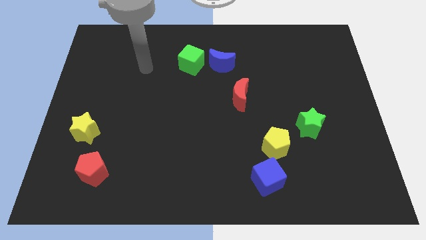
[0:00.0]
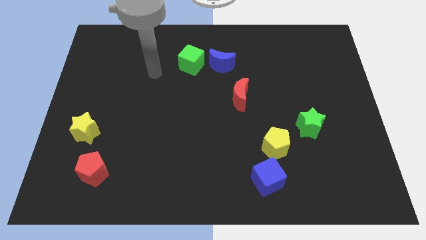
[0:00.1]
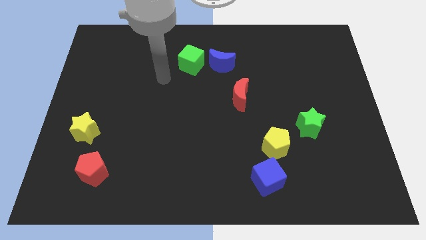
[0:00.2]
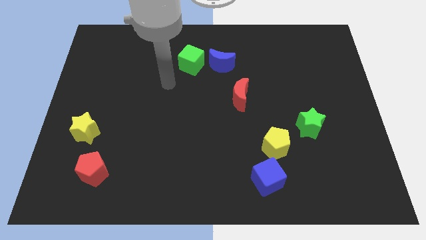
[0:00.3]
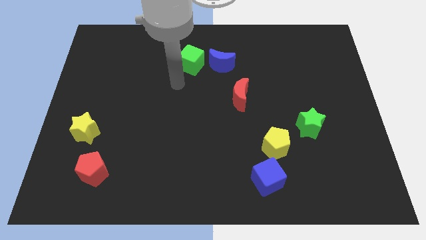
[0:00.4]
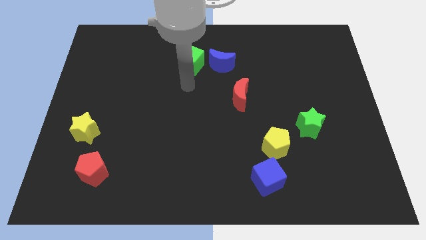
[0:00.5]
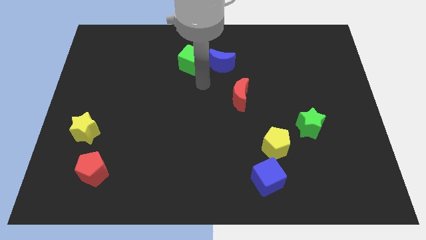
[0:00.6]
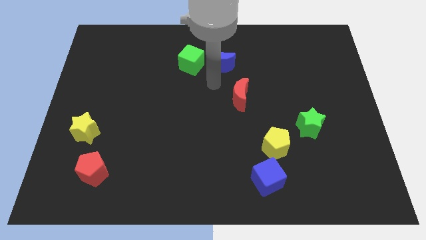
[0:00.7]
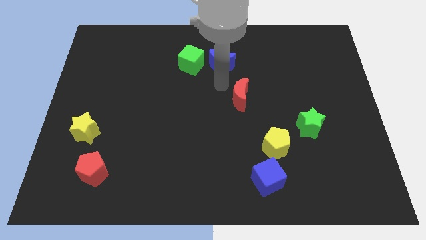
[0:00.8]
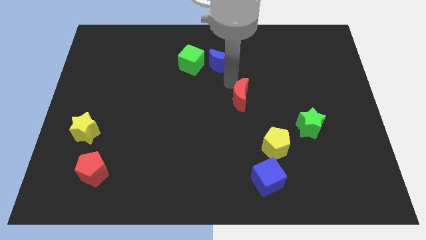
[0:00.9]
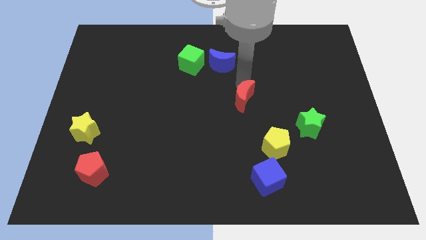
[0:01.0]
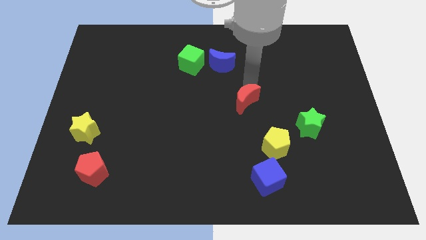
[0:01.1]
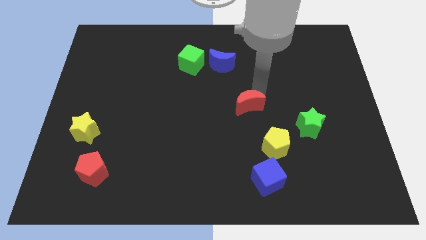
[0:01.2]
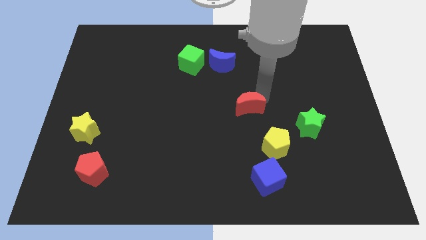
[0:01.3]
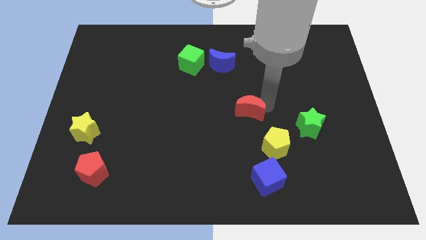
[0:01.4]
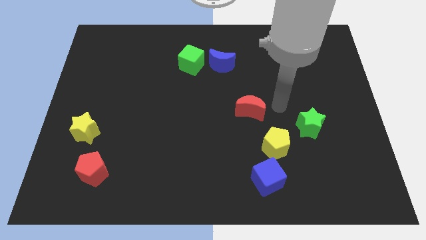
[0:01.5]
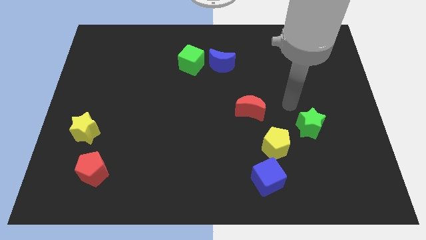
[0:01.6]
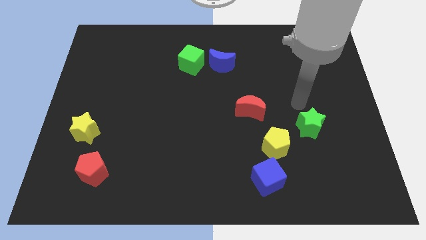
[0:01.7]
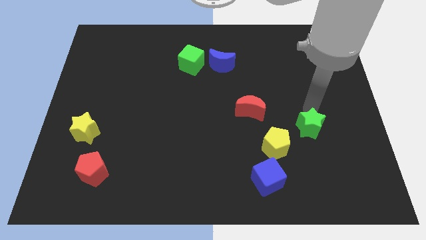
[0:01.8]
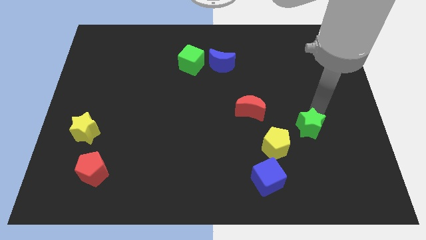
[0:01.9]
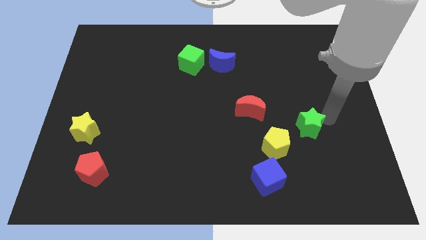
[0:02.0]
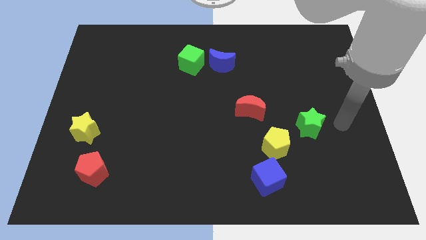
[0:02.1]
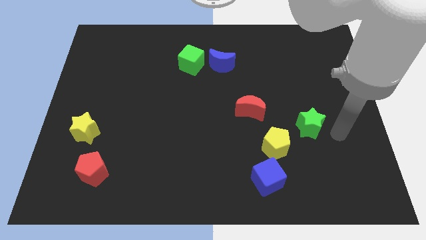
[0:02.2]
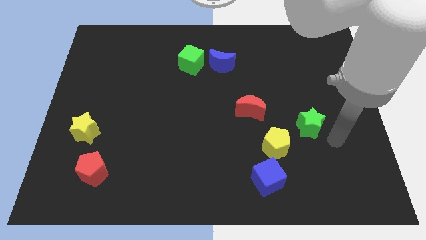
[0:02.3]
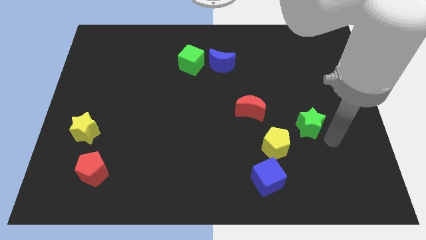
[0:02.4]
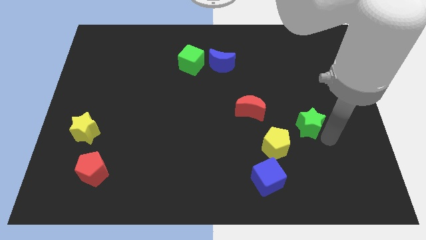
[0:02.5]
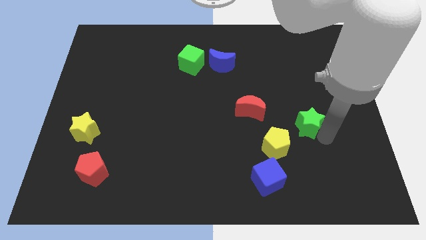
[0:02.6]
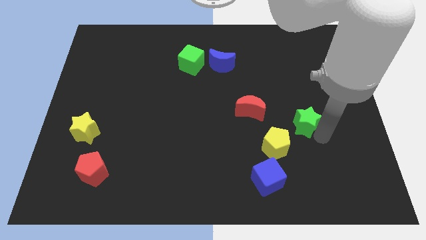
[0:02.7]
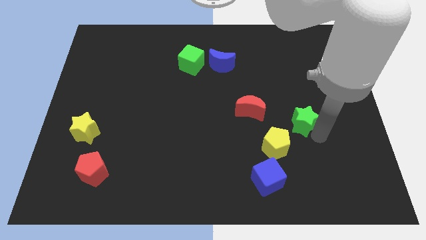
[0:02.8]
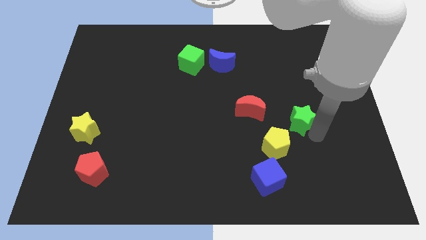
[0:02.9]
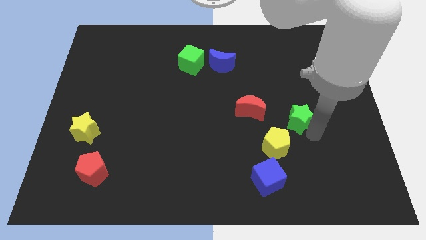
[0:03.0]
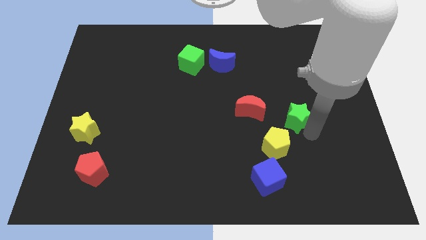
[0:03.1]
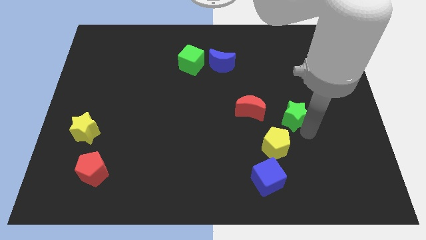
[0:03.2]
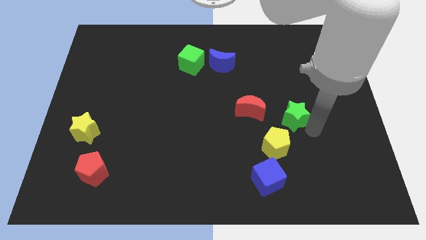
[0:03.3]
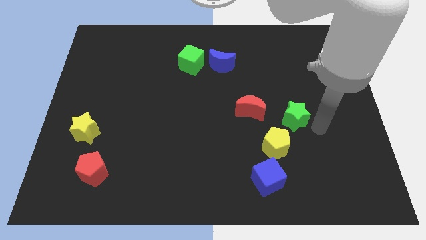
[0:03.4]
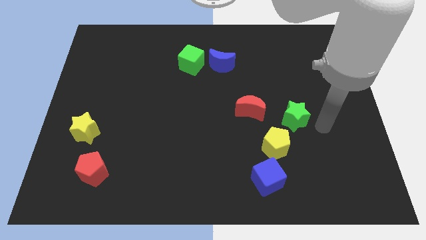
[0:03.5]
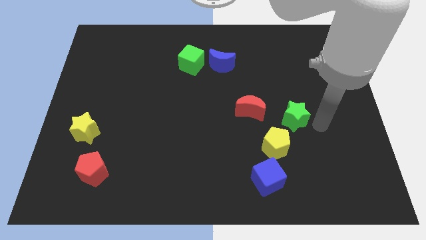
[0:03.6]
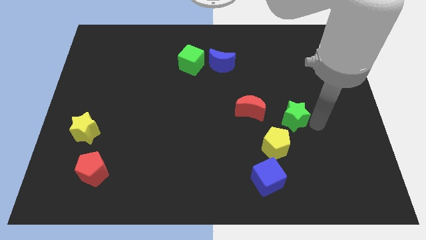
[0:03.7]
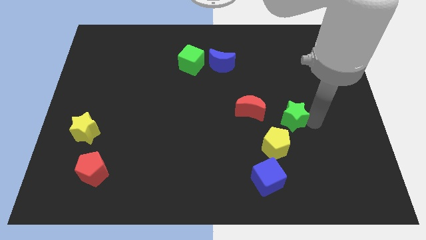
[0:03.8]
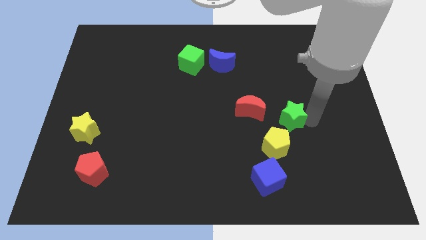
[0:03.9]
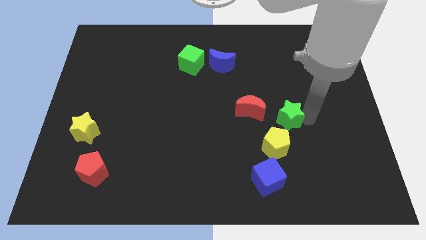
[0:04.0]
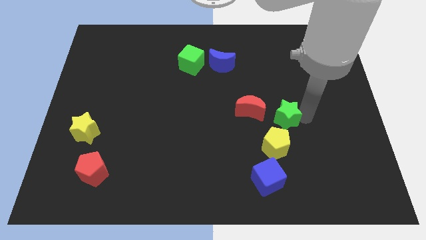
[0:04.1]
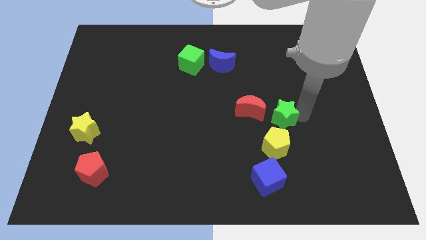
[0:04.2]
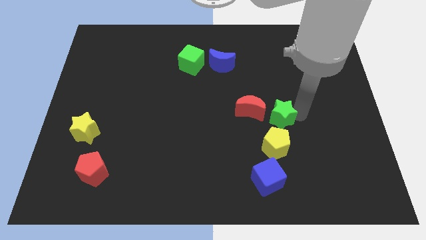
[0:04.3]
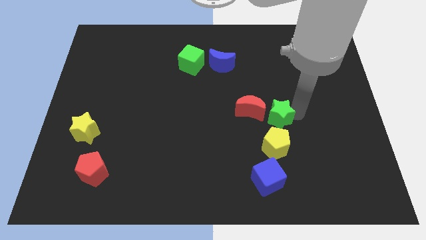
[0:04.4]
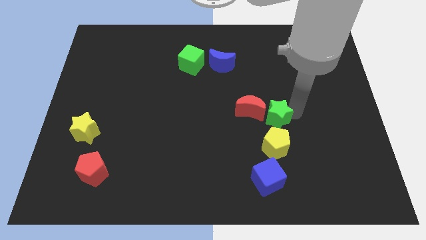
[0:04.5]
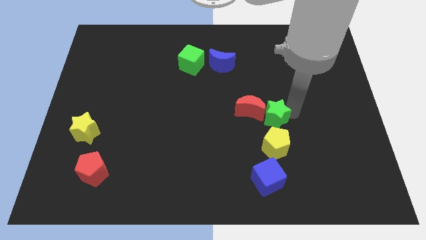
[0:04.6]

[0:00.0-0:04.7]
put the green star to the red moon

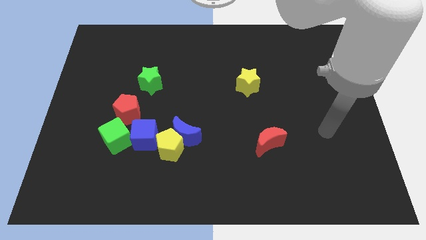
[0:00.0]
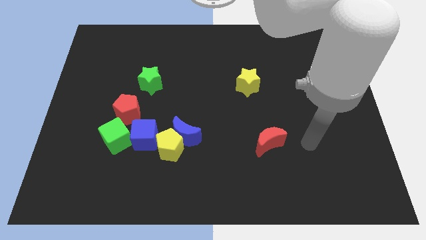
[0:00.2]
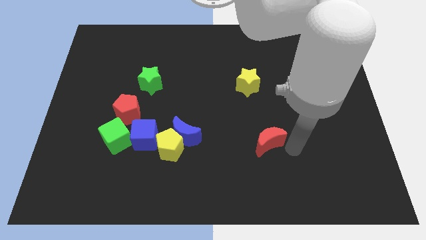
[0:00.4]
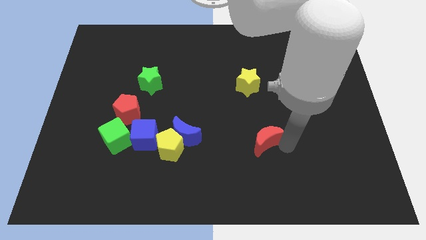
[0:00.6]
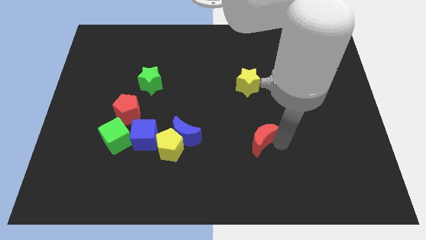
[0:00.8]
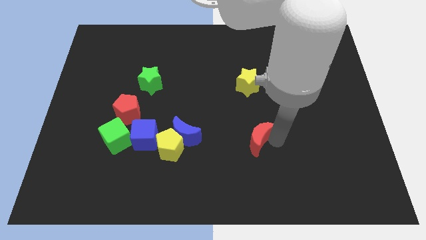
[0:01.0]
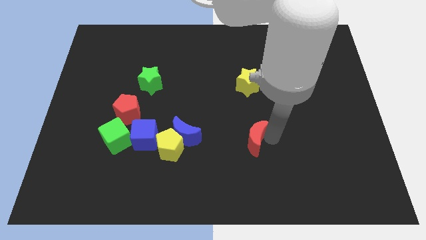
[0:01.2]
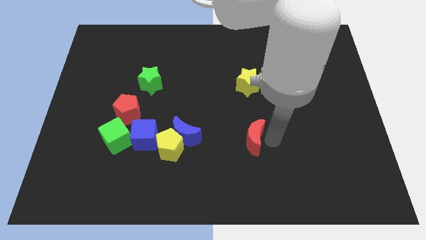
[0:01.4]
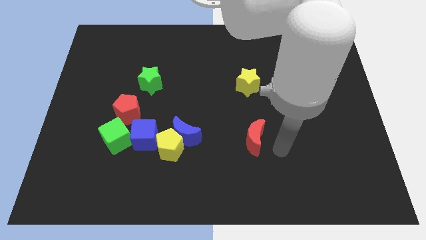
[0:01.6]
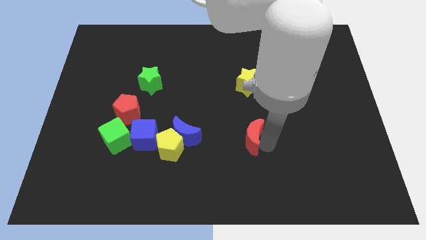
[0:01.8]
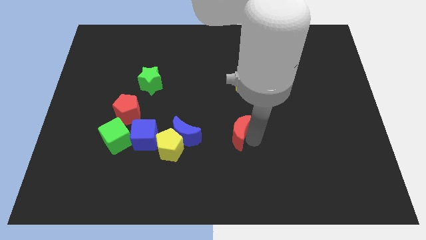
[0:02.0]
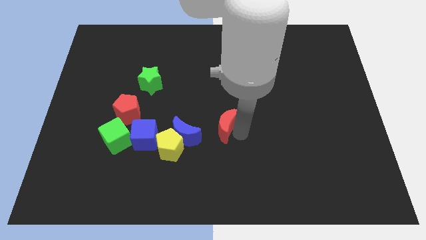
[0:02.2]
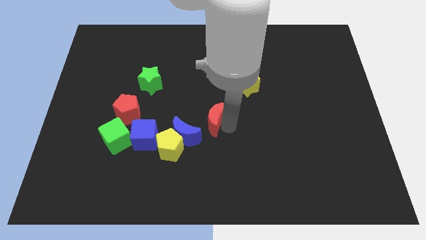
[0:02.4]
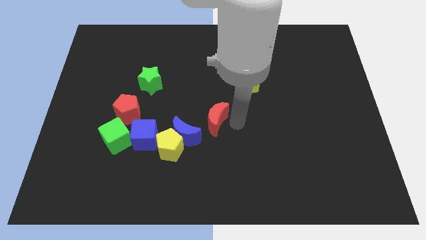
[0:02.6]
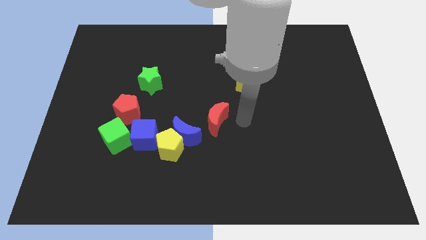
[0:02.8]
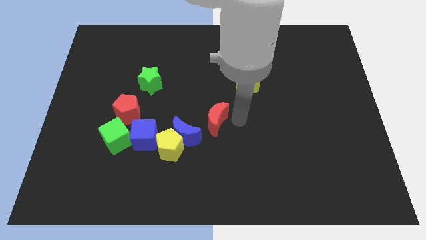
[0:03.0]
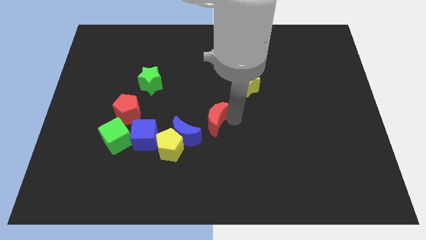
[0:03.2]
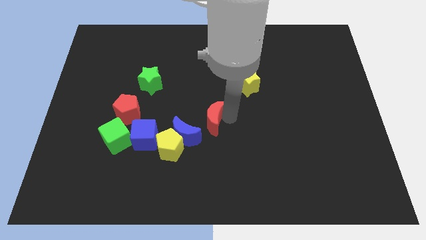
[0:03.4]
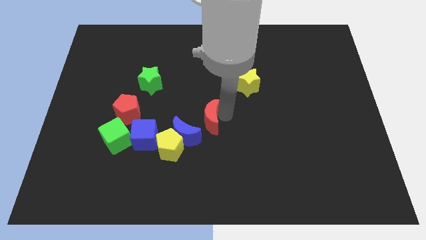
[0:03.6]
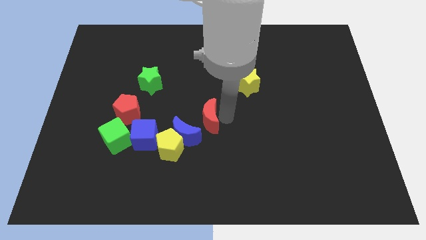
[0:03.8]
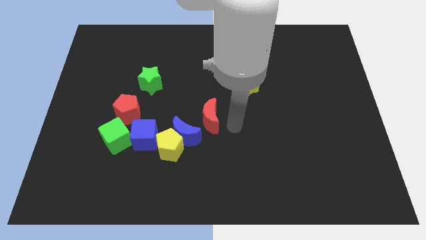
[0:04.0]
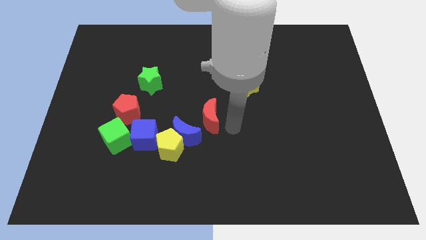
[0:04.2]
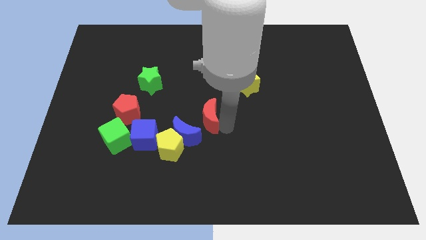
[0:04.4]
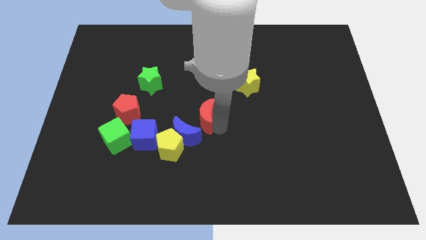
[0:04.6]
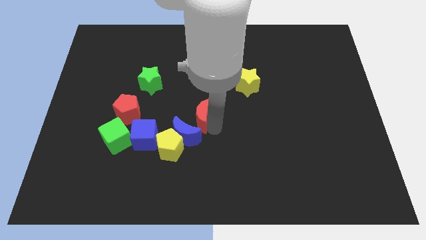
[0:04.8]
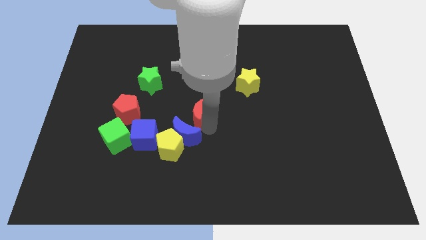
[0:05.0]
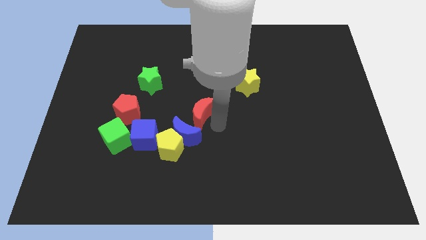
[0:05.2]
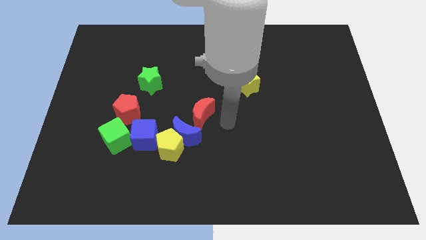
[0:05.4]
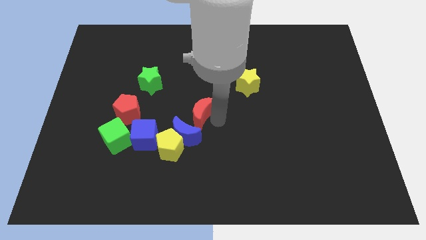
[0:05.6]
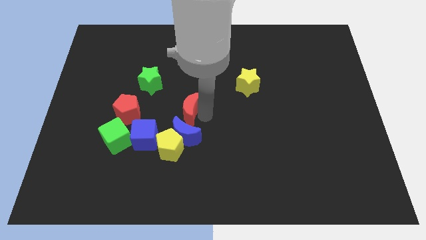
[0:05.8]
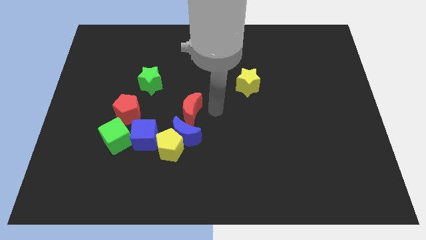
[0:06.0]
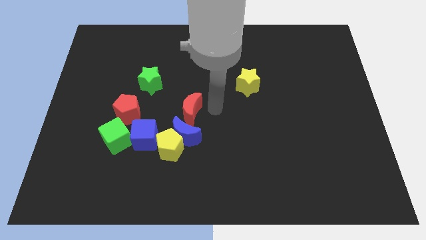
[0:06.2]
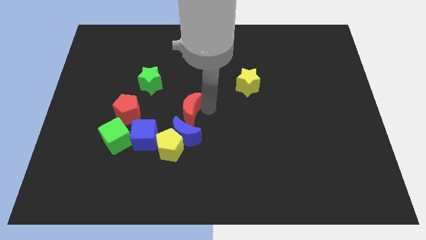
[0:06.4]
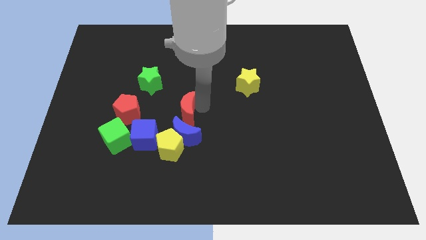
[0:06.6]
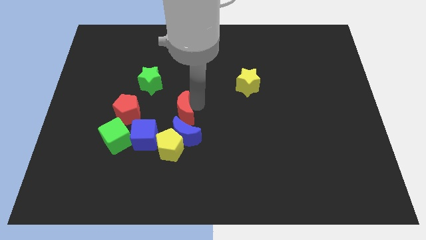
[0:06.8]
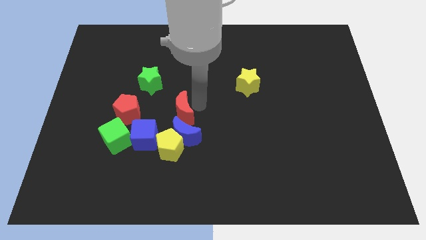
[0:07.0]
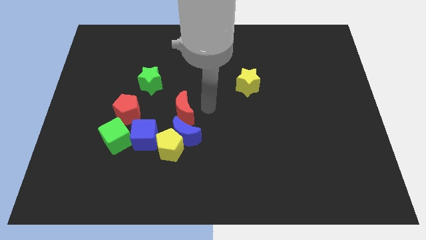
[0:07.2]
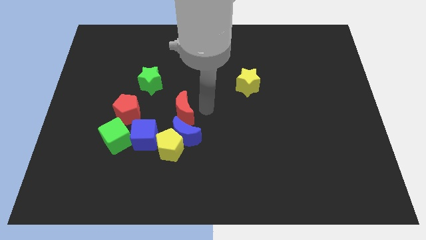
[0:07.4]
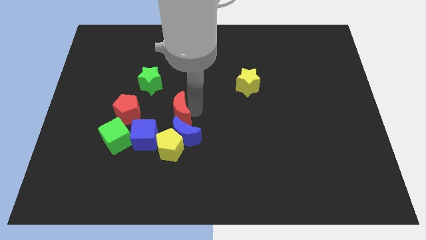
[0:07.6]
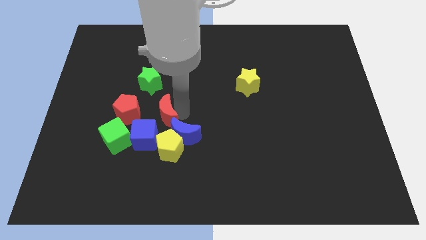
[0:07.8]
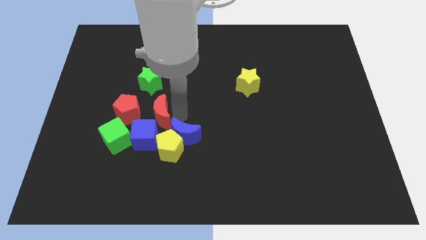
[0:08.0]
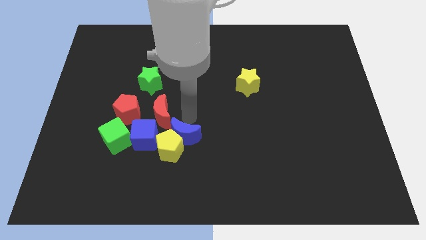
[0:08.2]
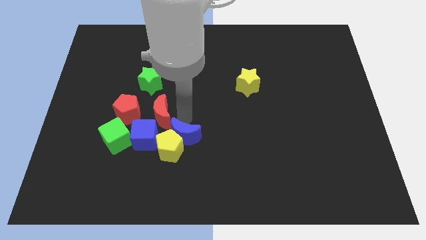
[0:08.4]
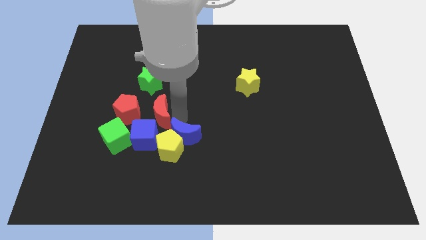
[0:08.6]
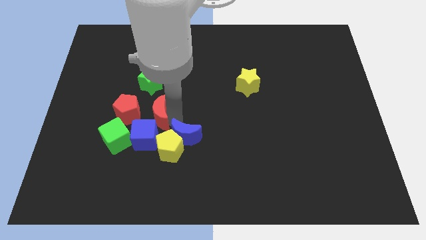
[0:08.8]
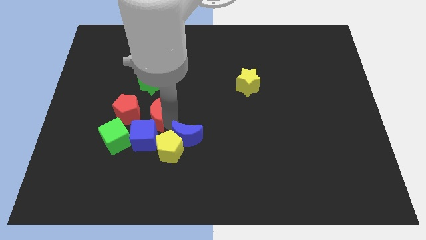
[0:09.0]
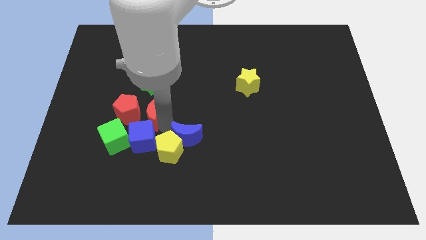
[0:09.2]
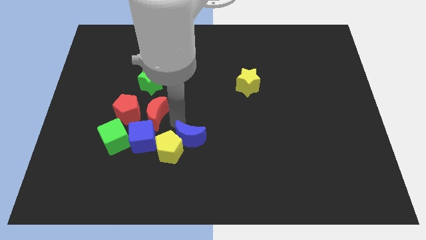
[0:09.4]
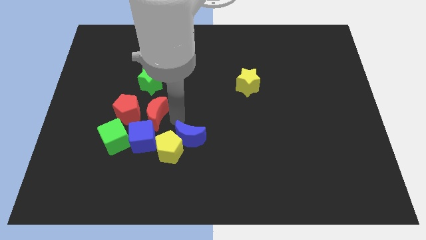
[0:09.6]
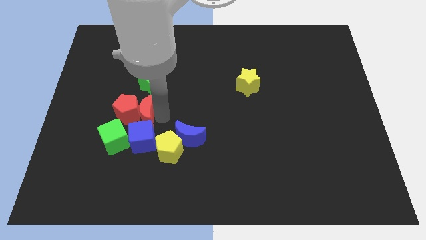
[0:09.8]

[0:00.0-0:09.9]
push the red moon to the red pentagon
